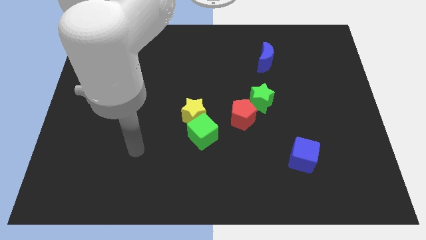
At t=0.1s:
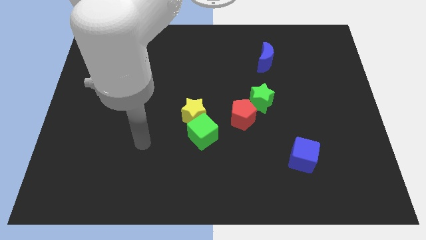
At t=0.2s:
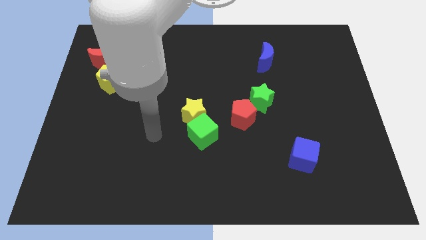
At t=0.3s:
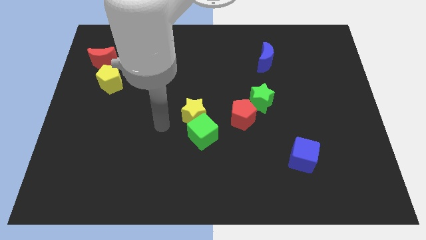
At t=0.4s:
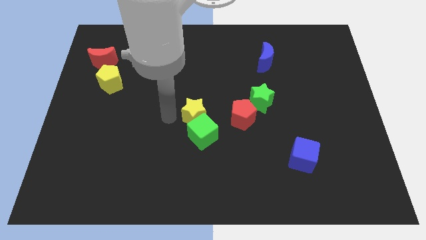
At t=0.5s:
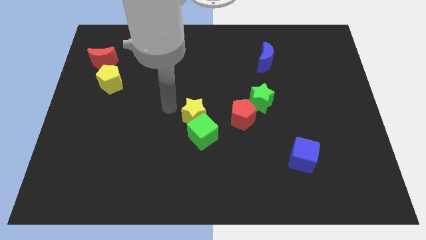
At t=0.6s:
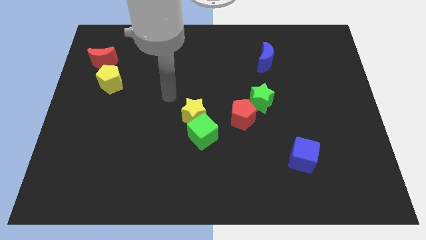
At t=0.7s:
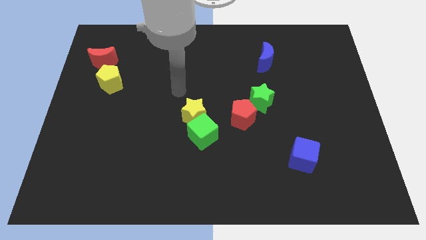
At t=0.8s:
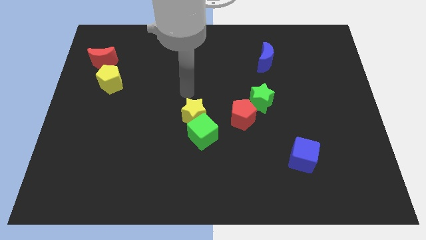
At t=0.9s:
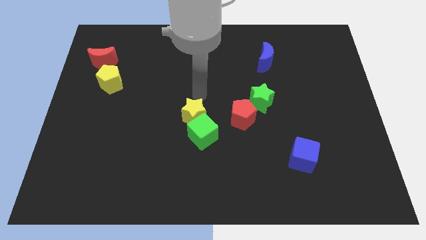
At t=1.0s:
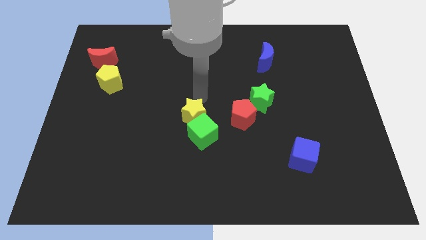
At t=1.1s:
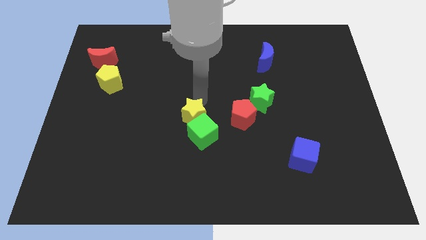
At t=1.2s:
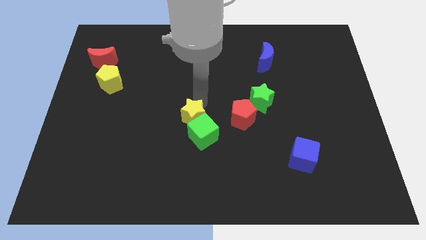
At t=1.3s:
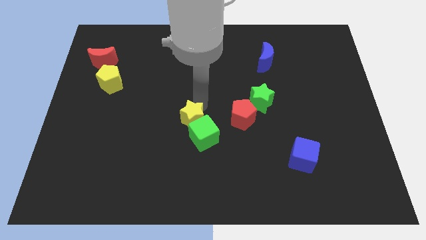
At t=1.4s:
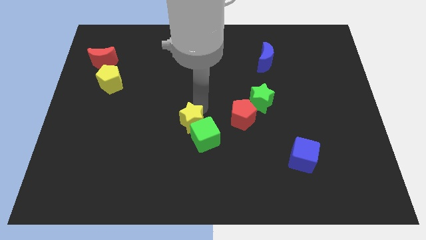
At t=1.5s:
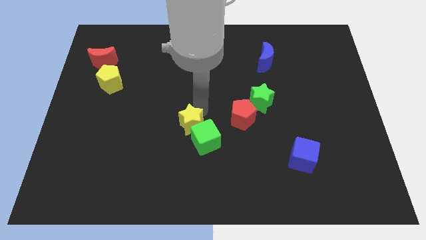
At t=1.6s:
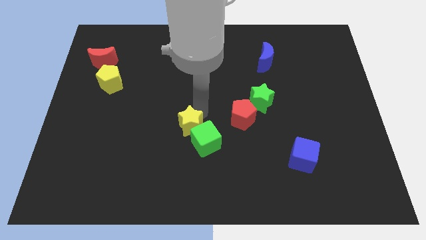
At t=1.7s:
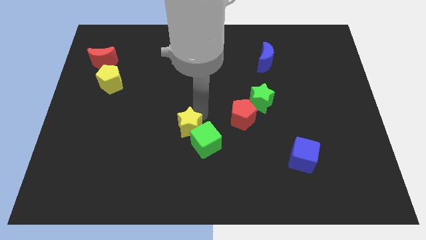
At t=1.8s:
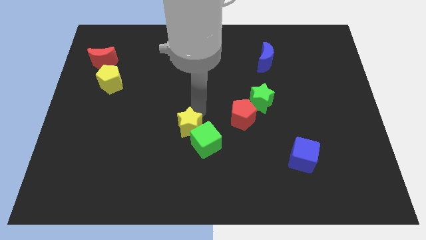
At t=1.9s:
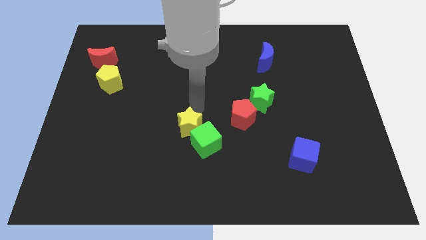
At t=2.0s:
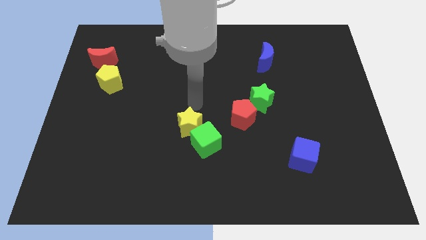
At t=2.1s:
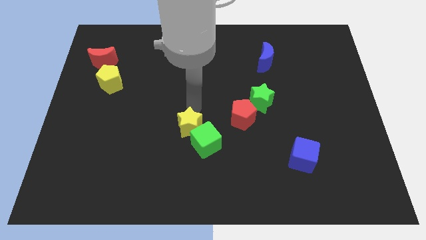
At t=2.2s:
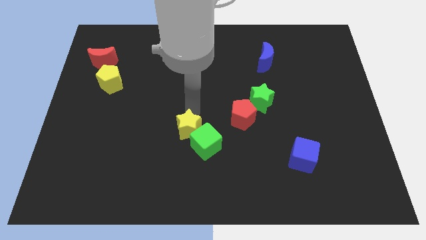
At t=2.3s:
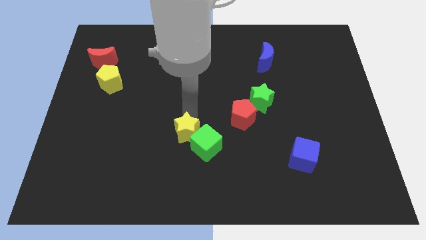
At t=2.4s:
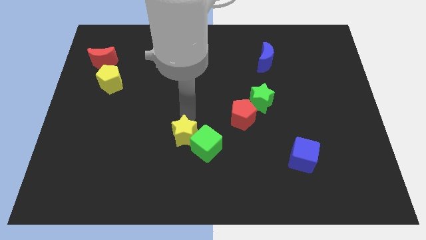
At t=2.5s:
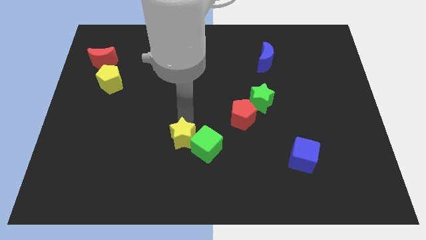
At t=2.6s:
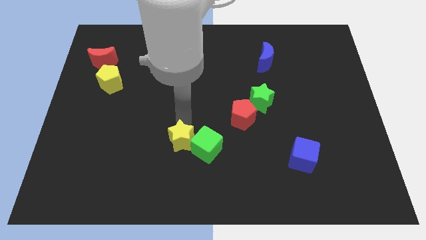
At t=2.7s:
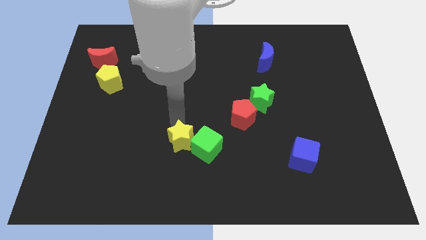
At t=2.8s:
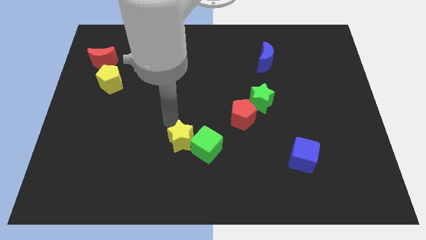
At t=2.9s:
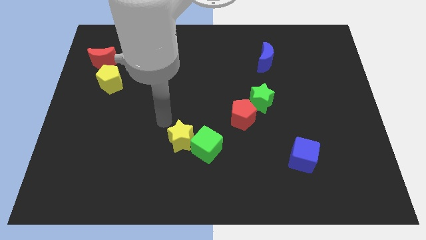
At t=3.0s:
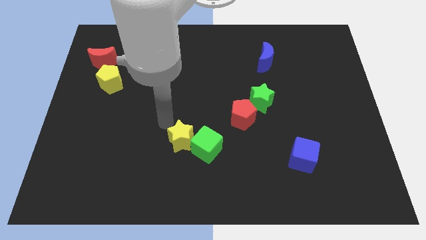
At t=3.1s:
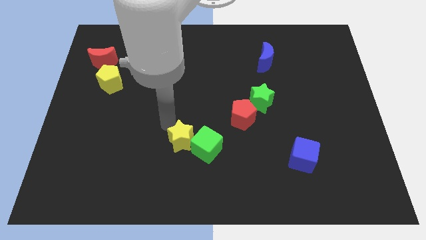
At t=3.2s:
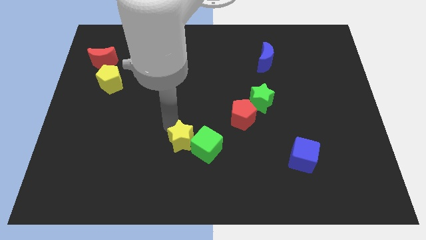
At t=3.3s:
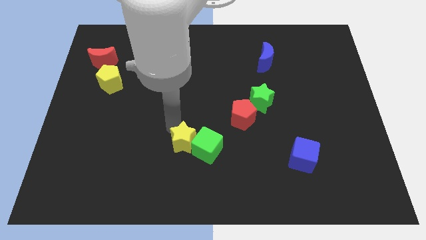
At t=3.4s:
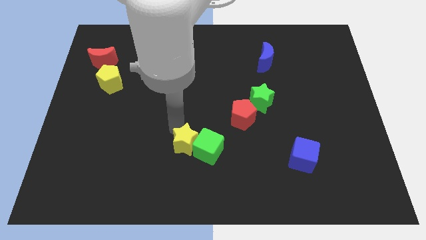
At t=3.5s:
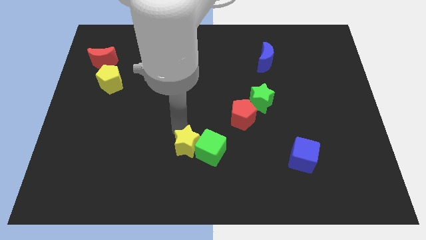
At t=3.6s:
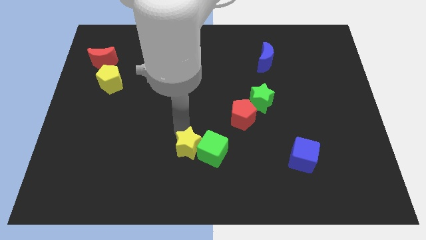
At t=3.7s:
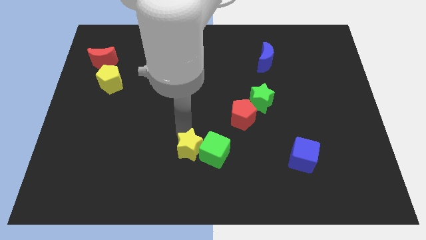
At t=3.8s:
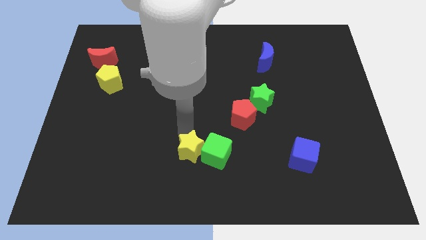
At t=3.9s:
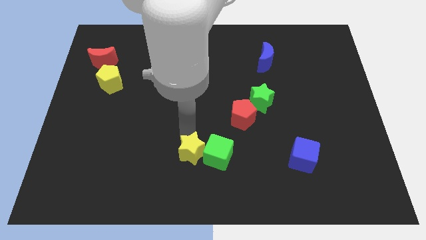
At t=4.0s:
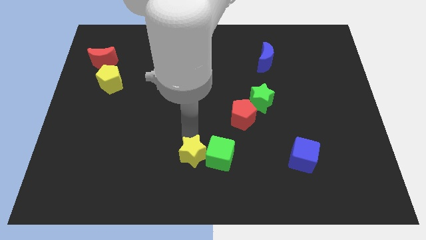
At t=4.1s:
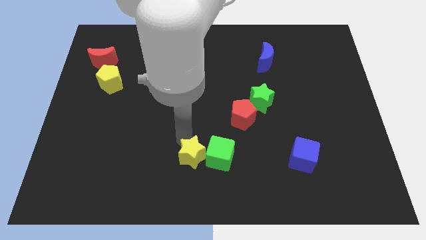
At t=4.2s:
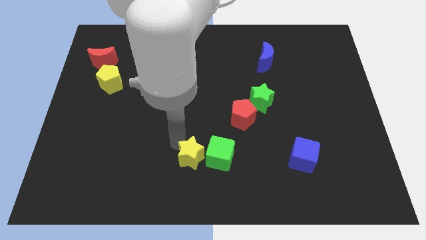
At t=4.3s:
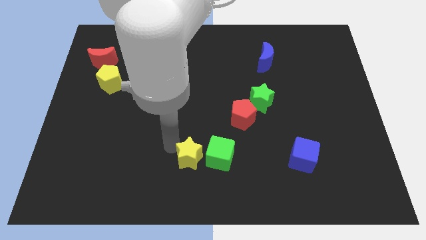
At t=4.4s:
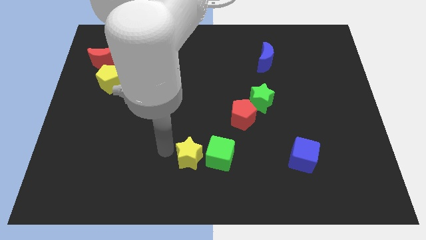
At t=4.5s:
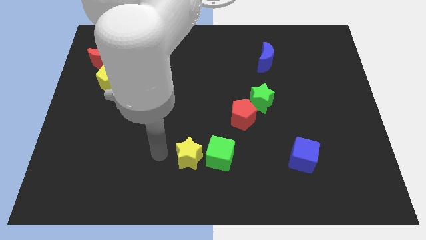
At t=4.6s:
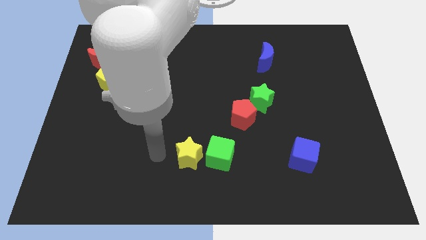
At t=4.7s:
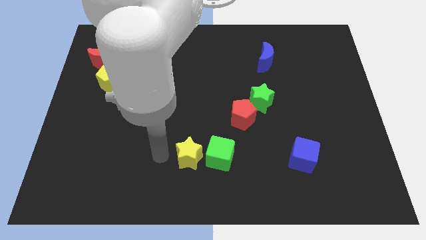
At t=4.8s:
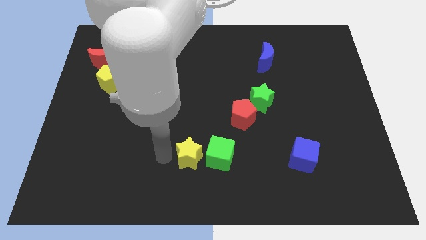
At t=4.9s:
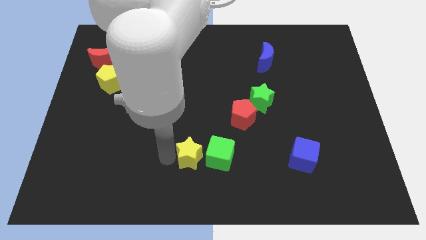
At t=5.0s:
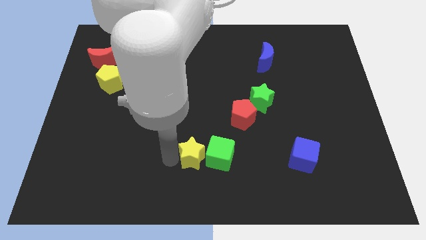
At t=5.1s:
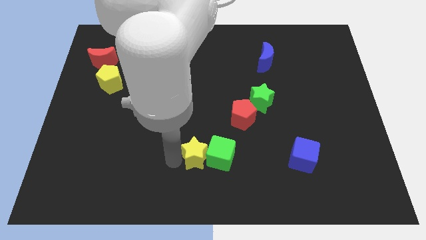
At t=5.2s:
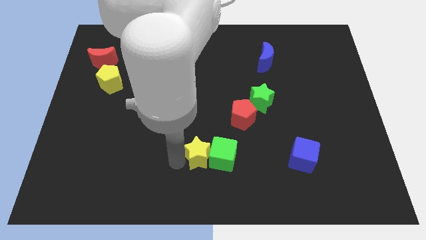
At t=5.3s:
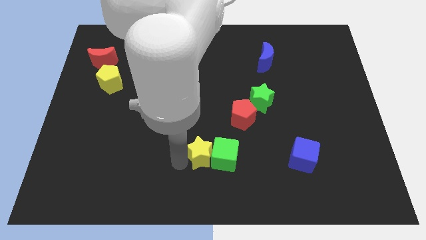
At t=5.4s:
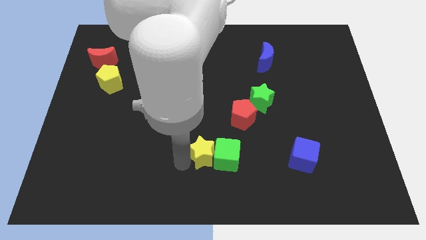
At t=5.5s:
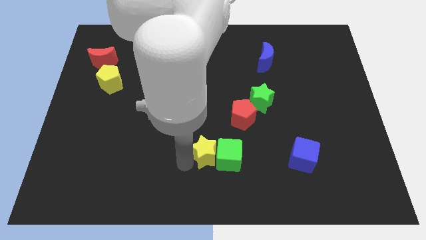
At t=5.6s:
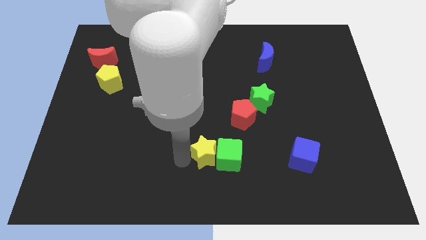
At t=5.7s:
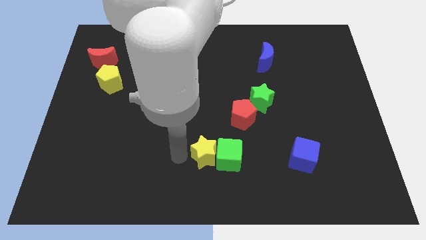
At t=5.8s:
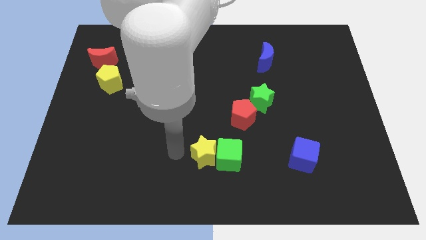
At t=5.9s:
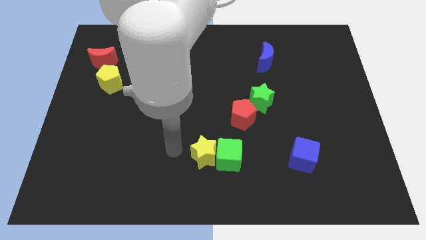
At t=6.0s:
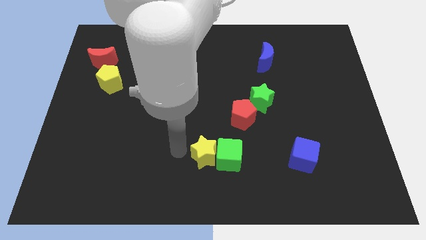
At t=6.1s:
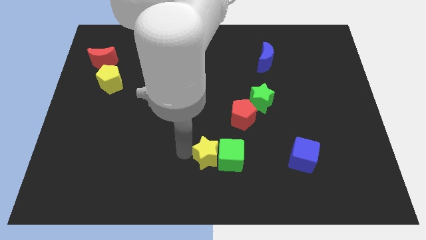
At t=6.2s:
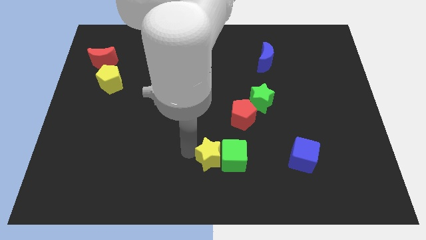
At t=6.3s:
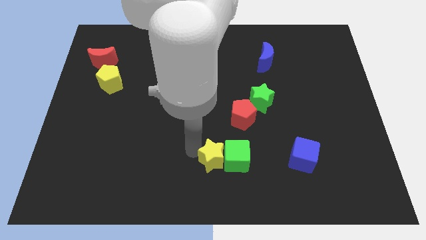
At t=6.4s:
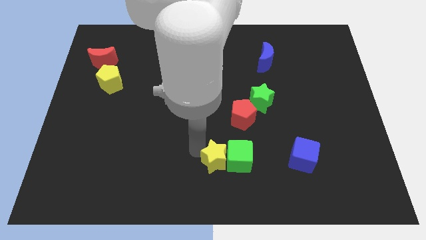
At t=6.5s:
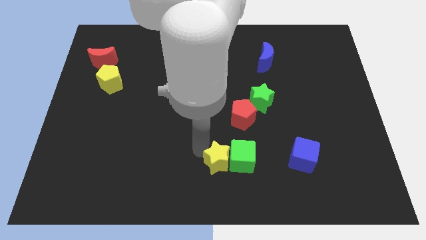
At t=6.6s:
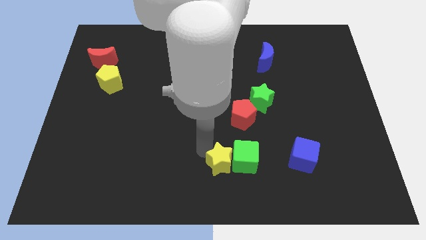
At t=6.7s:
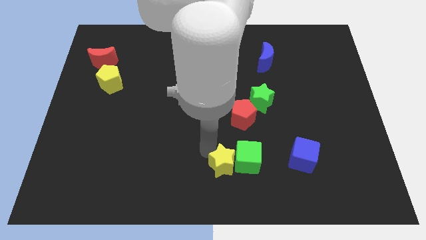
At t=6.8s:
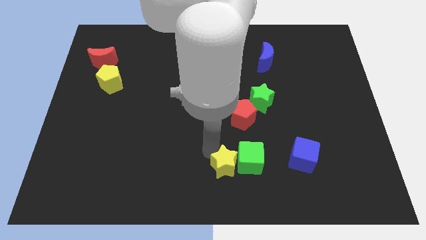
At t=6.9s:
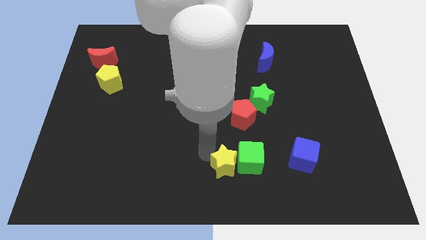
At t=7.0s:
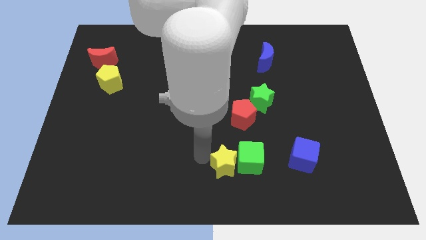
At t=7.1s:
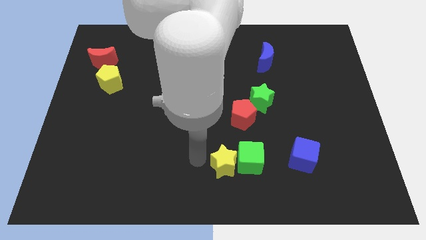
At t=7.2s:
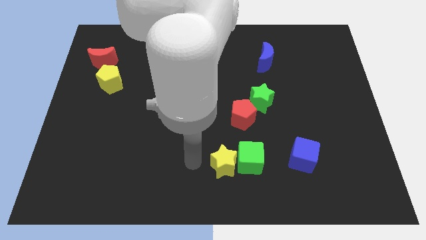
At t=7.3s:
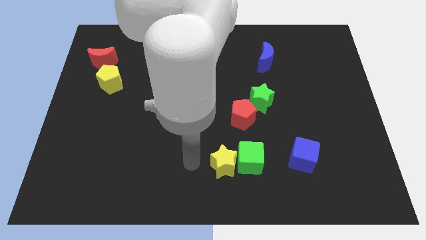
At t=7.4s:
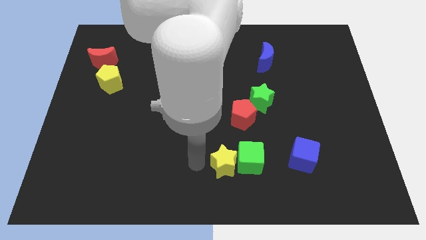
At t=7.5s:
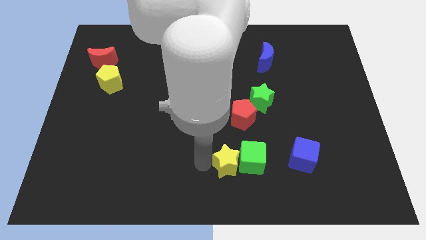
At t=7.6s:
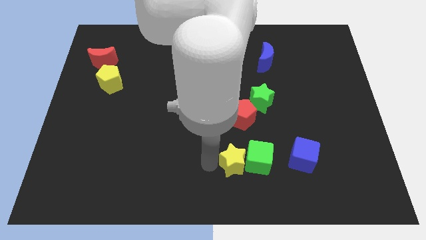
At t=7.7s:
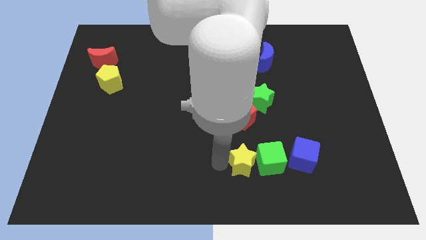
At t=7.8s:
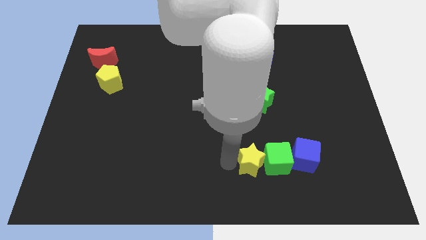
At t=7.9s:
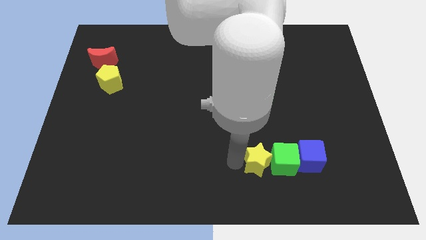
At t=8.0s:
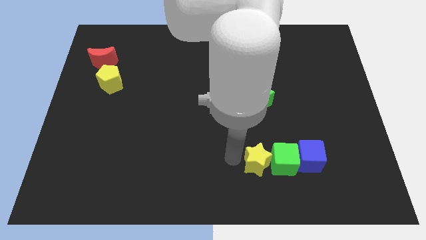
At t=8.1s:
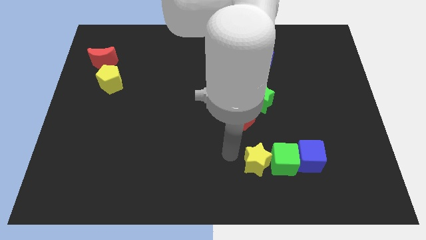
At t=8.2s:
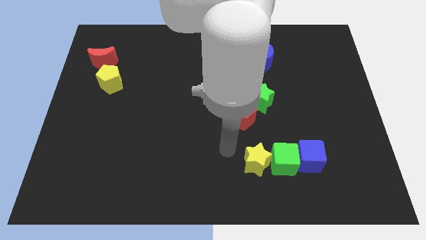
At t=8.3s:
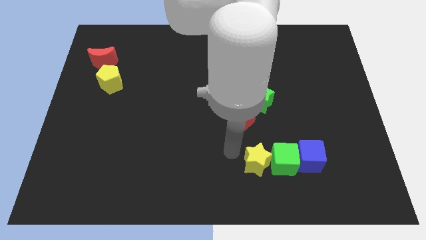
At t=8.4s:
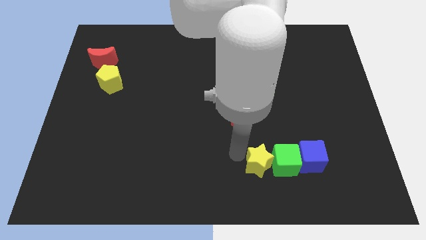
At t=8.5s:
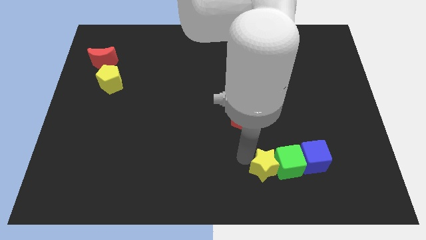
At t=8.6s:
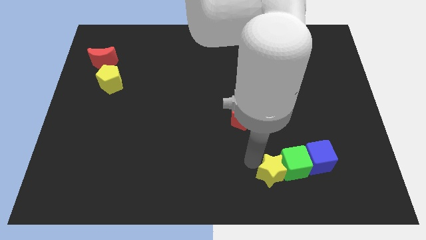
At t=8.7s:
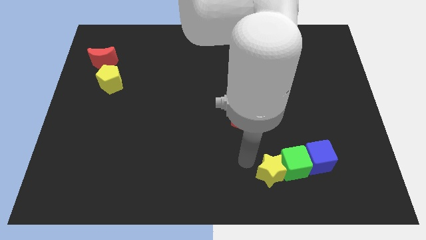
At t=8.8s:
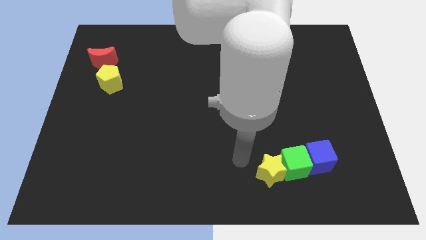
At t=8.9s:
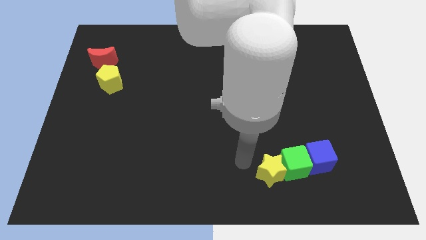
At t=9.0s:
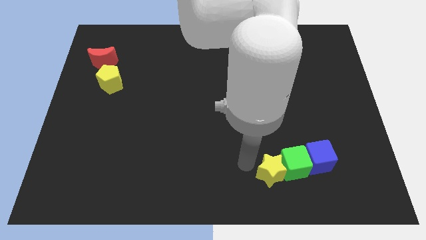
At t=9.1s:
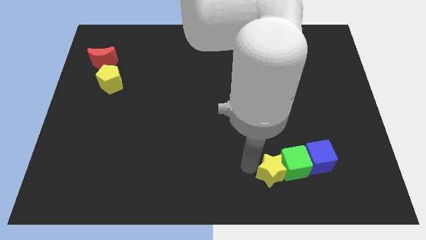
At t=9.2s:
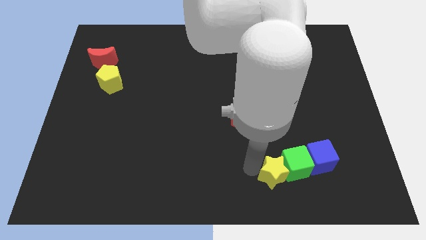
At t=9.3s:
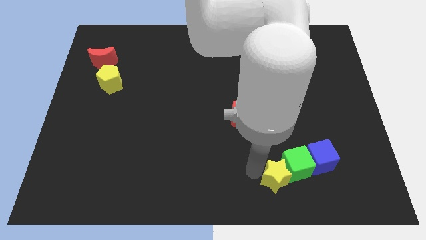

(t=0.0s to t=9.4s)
slide the yellow star to the bottom left side of the blue cube
